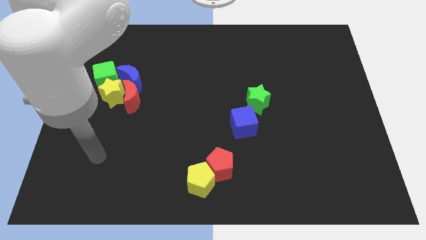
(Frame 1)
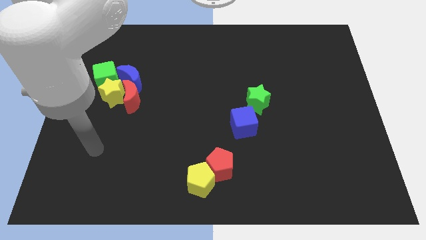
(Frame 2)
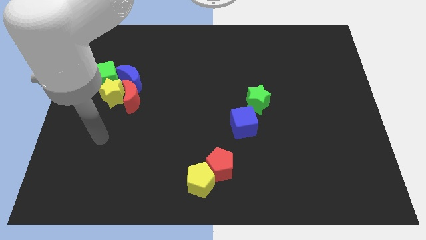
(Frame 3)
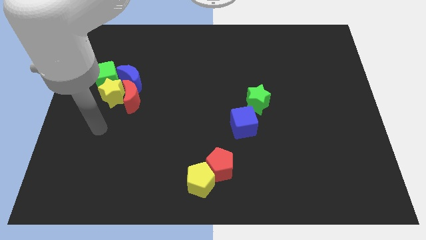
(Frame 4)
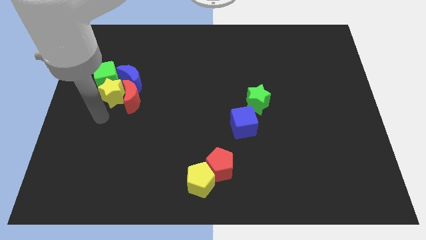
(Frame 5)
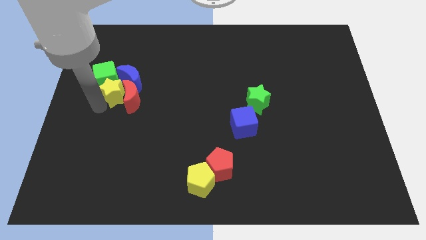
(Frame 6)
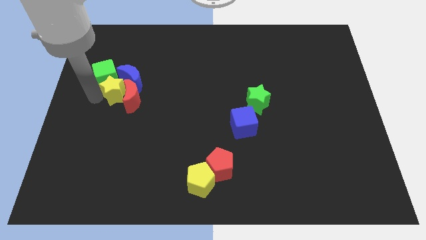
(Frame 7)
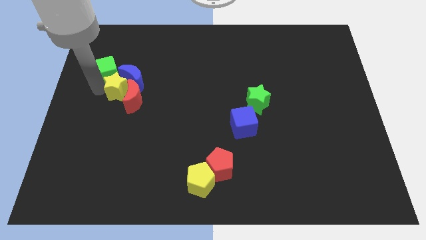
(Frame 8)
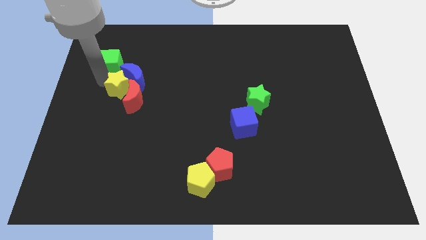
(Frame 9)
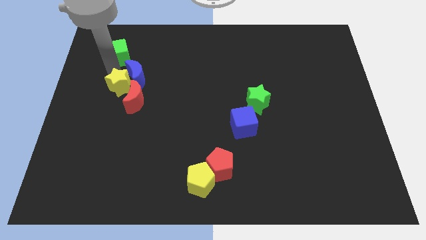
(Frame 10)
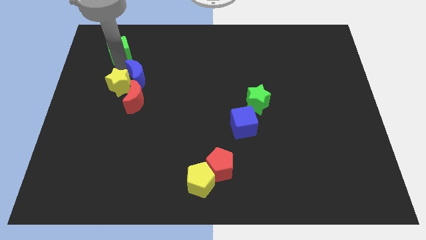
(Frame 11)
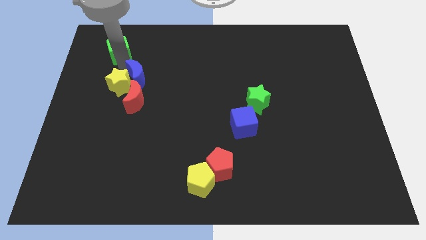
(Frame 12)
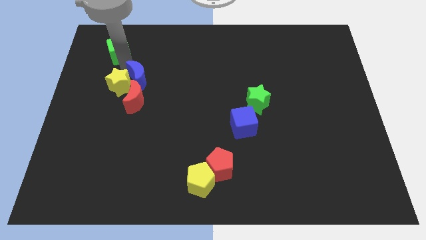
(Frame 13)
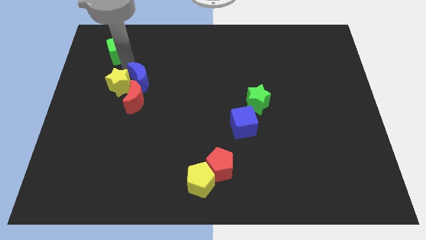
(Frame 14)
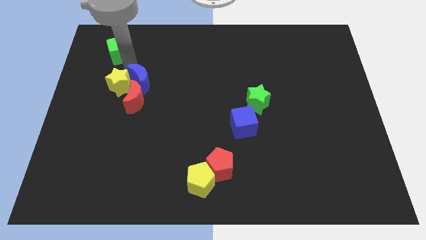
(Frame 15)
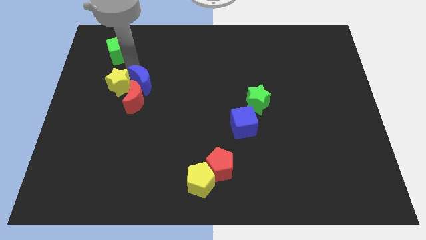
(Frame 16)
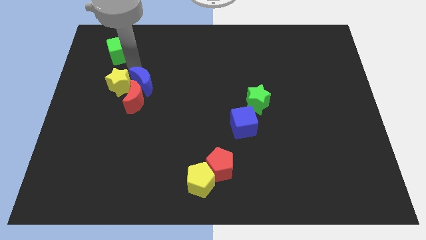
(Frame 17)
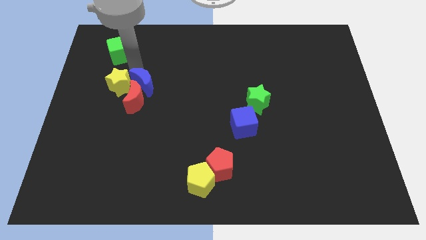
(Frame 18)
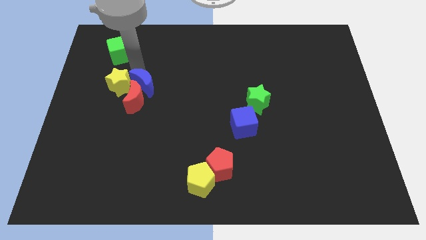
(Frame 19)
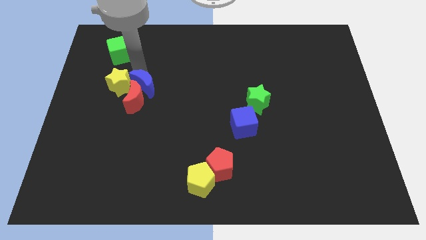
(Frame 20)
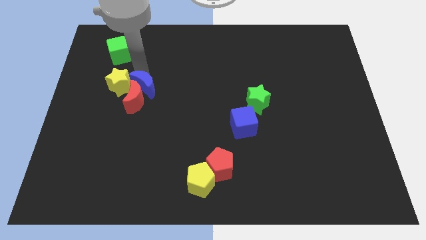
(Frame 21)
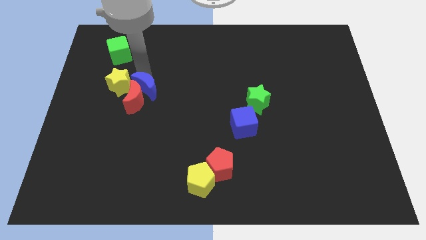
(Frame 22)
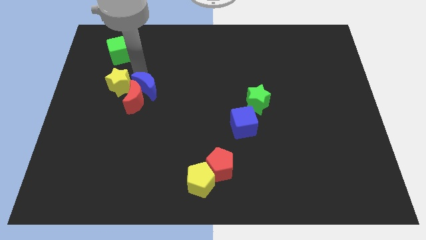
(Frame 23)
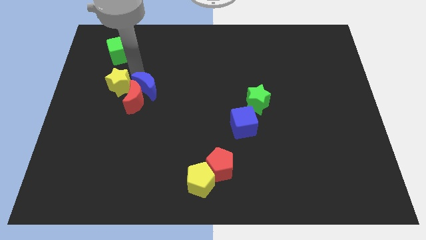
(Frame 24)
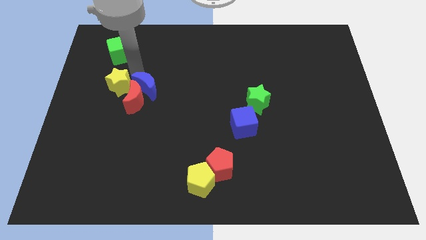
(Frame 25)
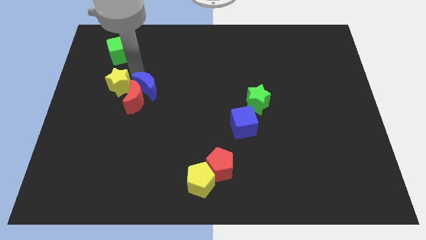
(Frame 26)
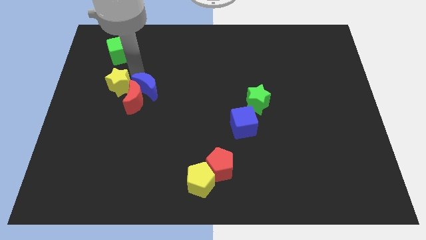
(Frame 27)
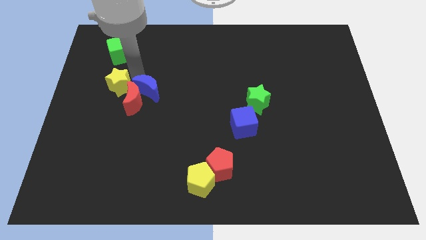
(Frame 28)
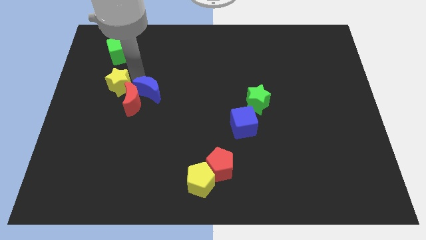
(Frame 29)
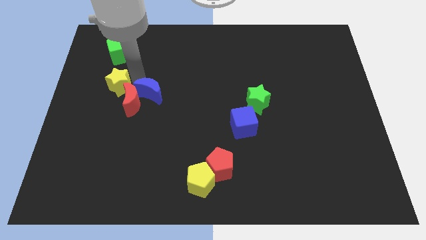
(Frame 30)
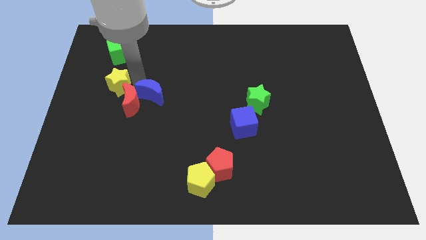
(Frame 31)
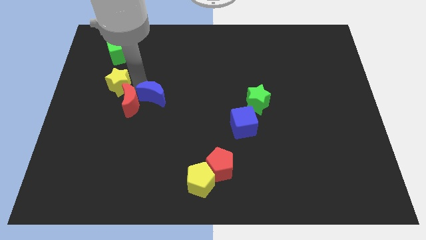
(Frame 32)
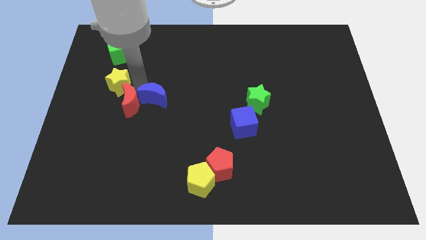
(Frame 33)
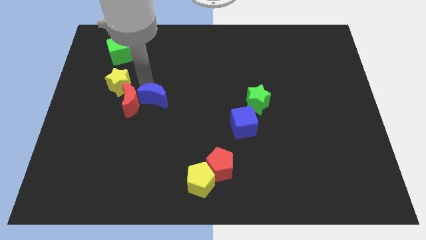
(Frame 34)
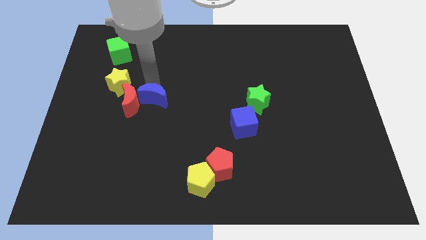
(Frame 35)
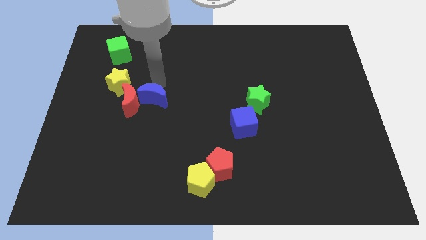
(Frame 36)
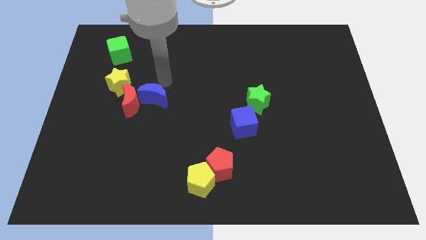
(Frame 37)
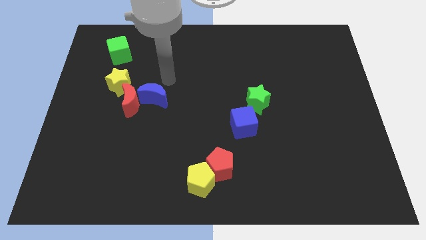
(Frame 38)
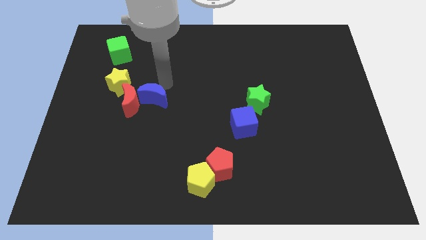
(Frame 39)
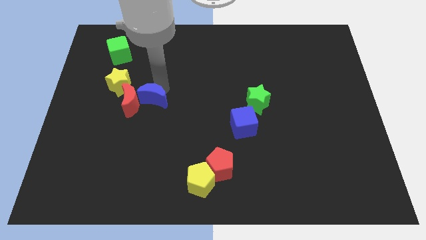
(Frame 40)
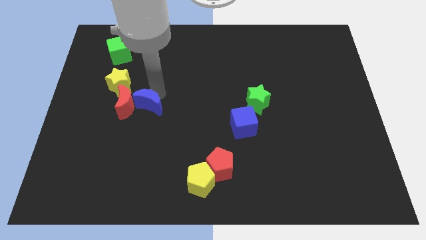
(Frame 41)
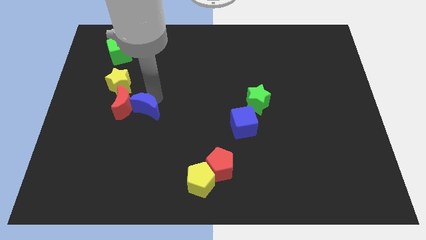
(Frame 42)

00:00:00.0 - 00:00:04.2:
slightly move the blue moon downwards

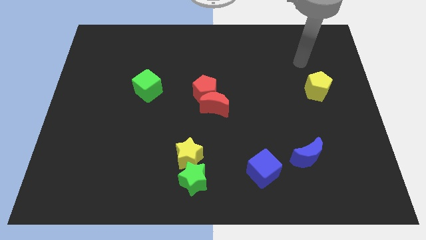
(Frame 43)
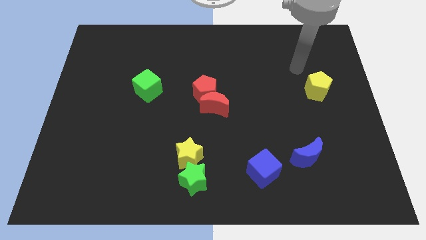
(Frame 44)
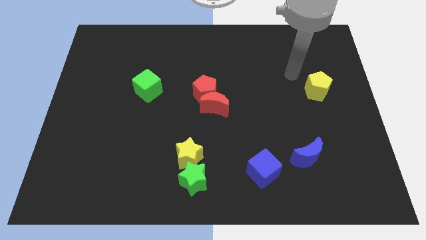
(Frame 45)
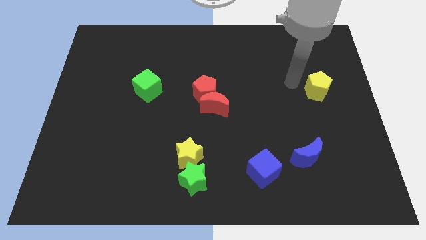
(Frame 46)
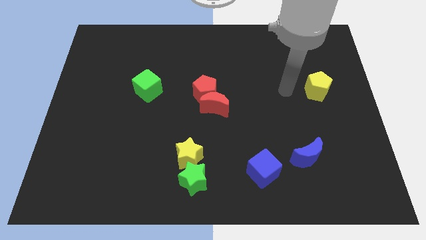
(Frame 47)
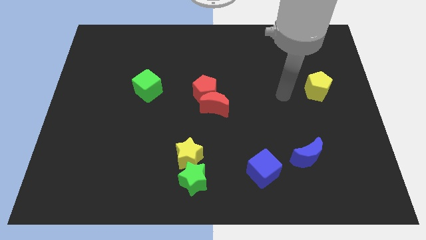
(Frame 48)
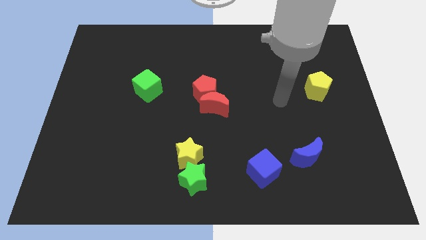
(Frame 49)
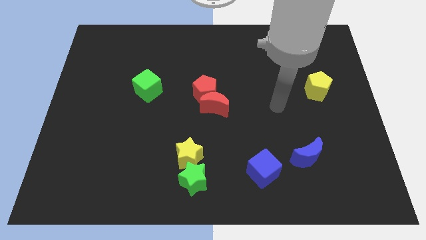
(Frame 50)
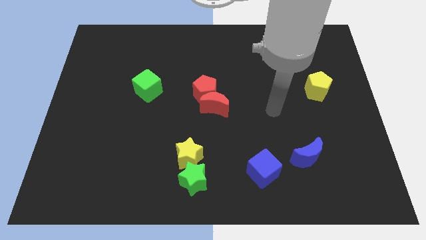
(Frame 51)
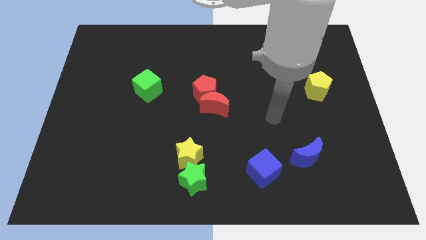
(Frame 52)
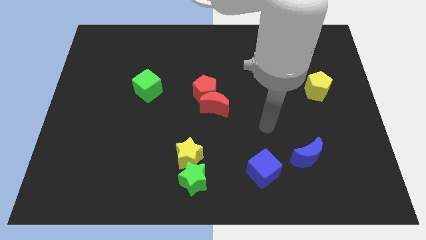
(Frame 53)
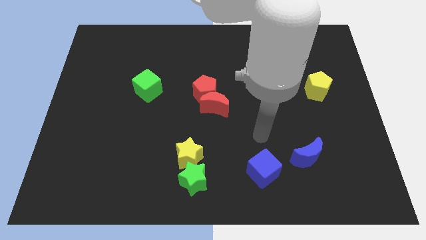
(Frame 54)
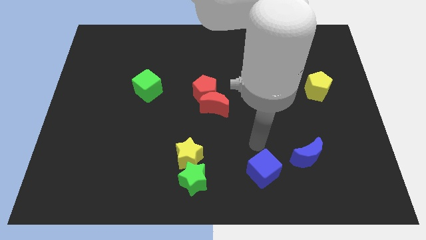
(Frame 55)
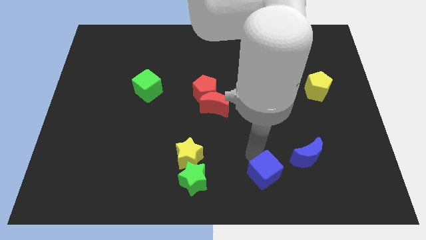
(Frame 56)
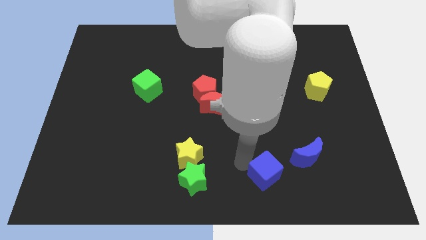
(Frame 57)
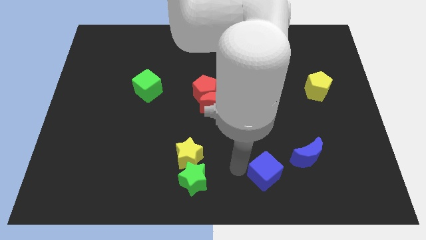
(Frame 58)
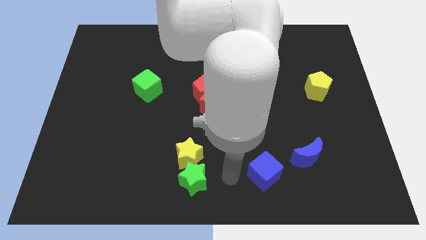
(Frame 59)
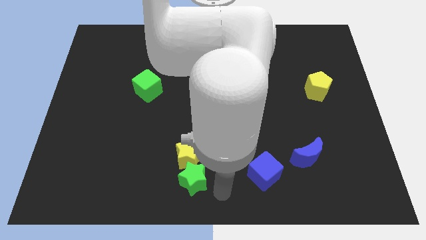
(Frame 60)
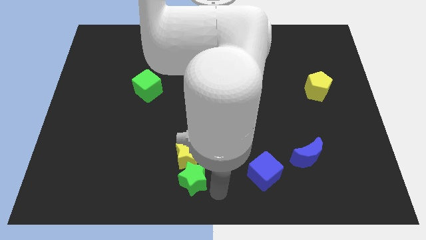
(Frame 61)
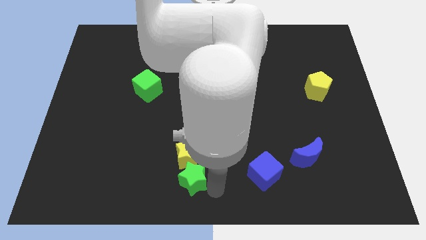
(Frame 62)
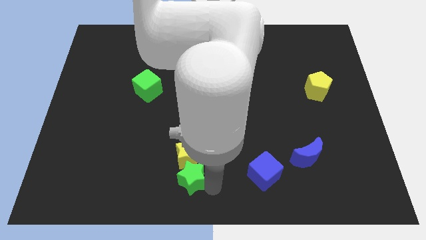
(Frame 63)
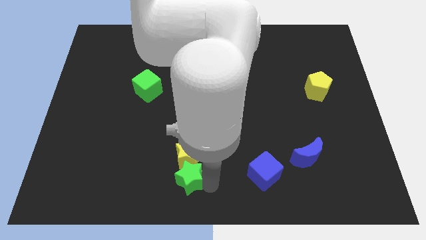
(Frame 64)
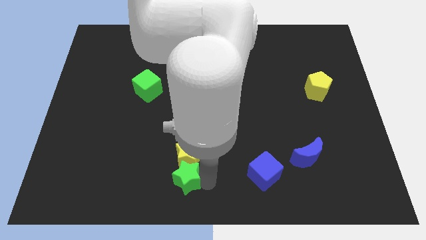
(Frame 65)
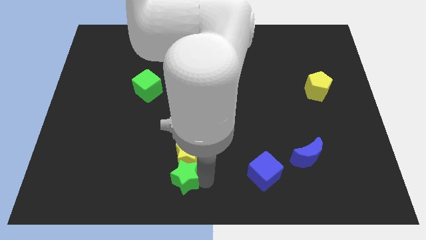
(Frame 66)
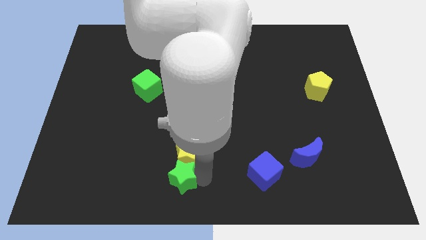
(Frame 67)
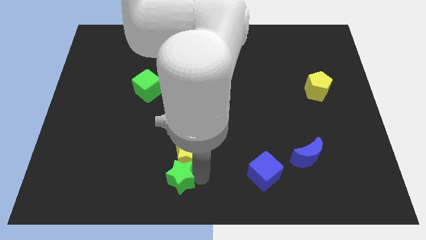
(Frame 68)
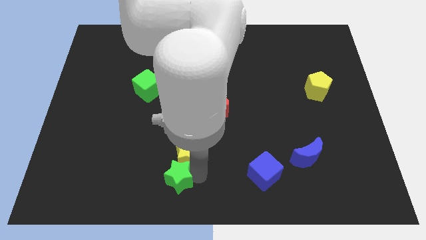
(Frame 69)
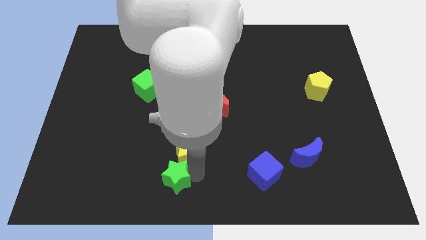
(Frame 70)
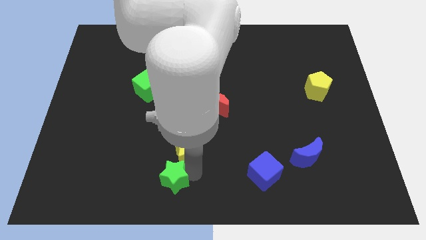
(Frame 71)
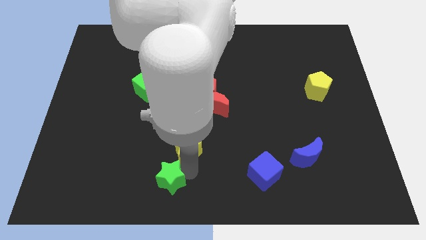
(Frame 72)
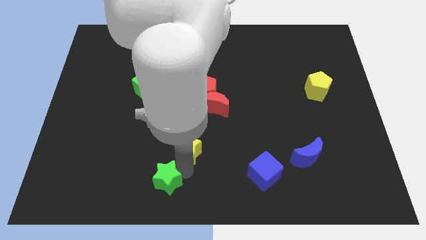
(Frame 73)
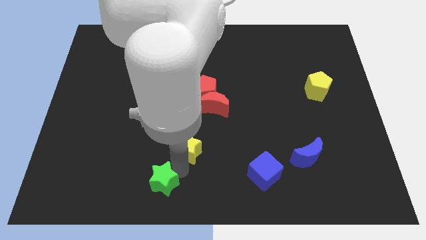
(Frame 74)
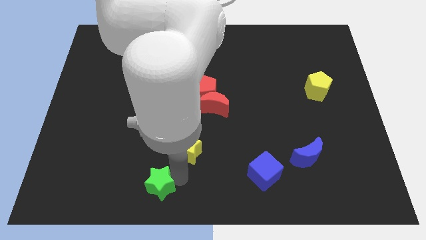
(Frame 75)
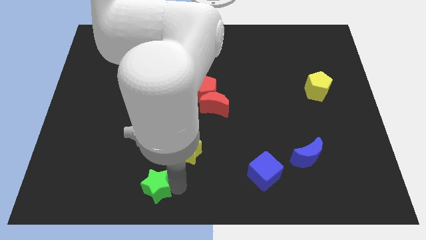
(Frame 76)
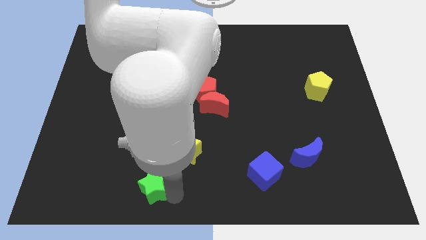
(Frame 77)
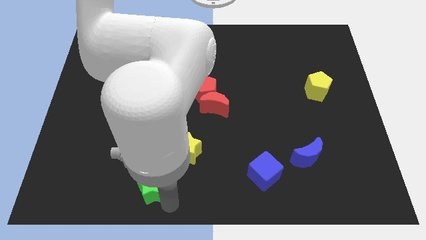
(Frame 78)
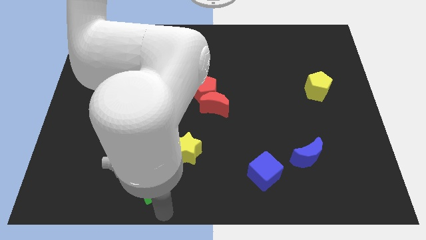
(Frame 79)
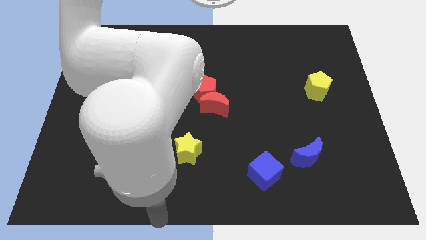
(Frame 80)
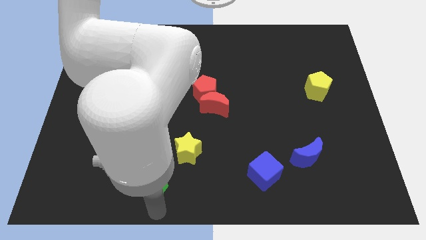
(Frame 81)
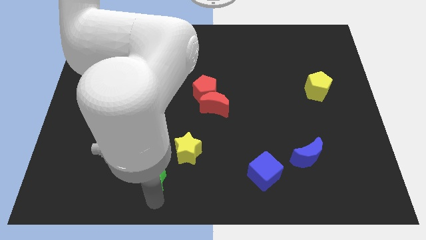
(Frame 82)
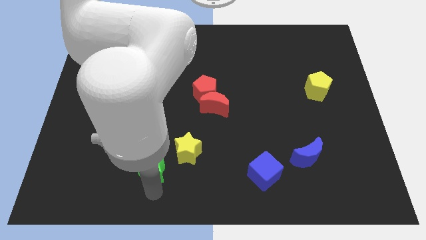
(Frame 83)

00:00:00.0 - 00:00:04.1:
slightly push the green star upwards and left
